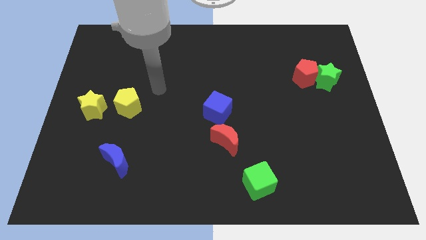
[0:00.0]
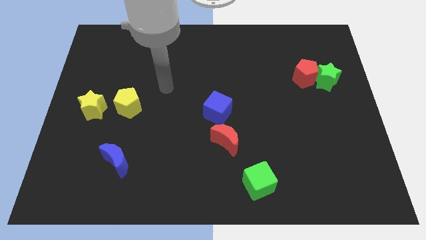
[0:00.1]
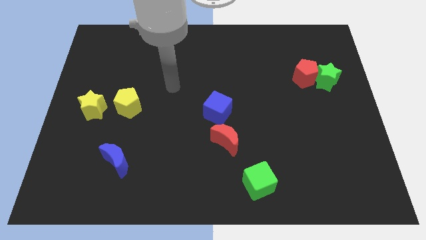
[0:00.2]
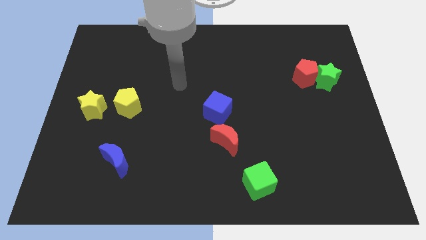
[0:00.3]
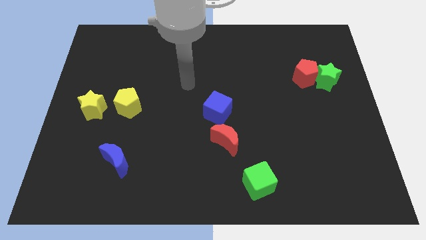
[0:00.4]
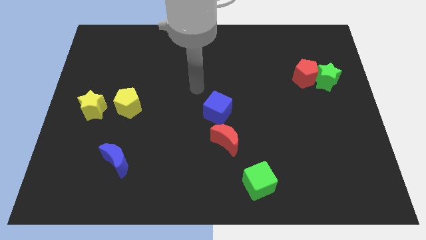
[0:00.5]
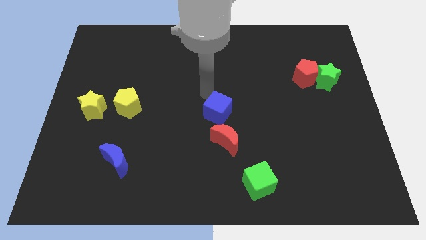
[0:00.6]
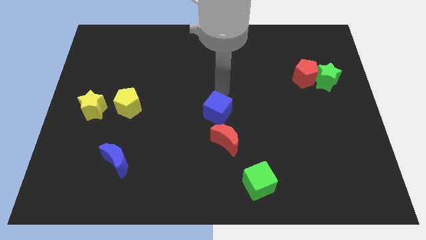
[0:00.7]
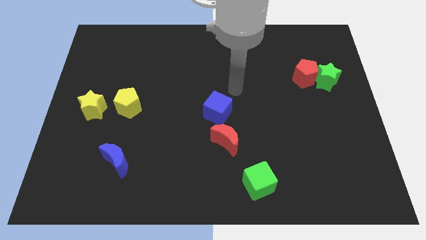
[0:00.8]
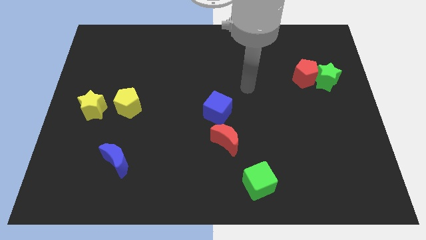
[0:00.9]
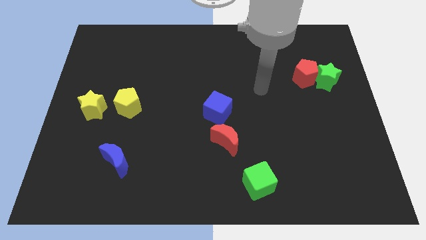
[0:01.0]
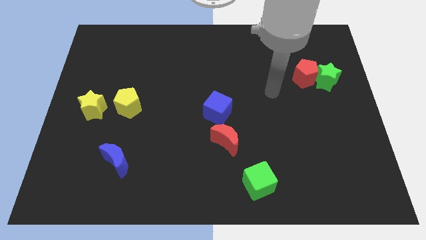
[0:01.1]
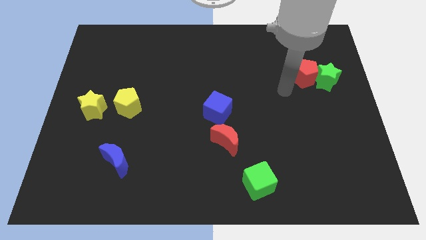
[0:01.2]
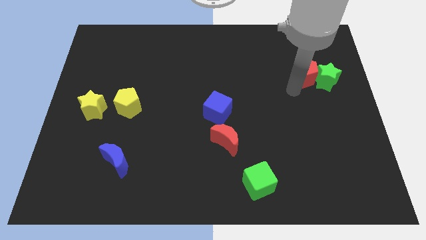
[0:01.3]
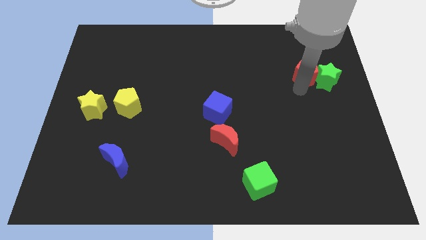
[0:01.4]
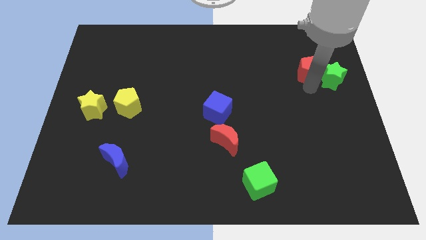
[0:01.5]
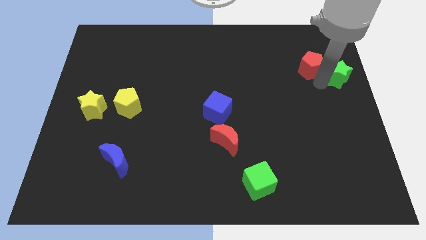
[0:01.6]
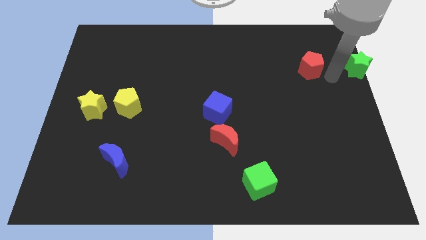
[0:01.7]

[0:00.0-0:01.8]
separate the red pentagon from the green star

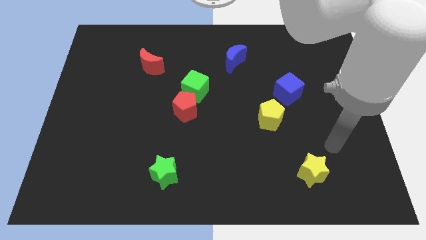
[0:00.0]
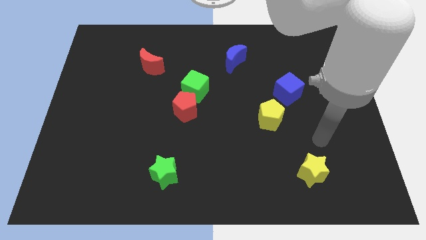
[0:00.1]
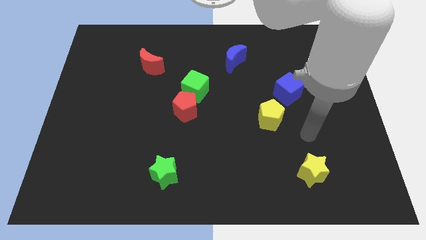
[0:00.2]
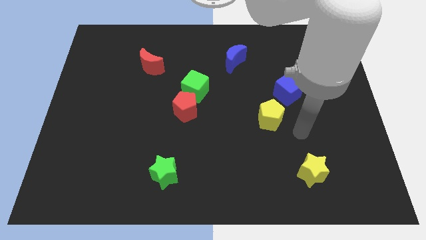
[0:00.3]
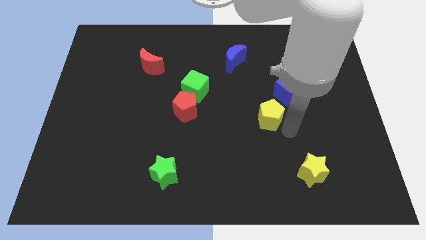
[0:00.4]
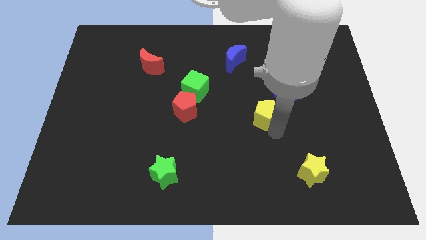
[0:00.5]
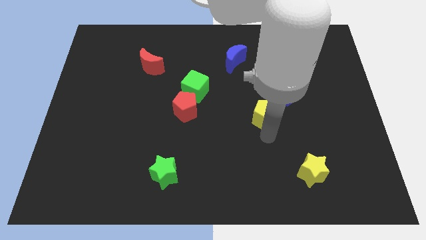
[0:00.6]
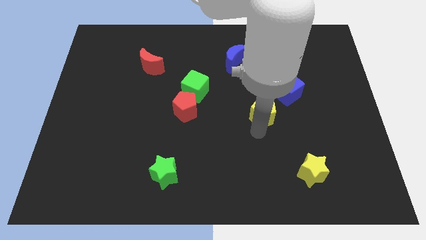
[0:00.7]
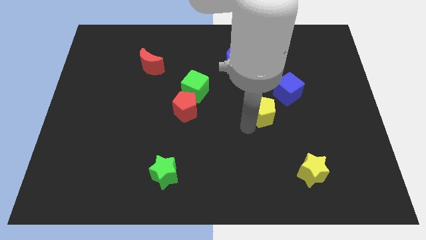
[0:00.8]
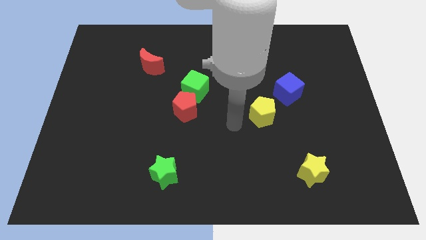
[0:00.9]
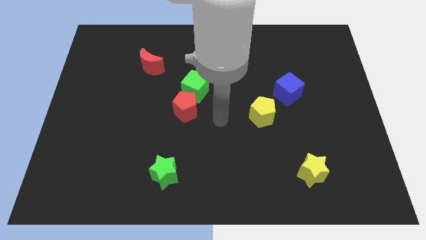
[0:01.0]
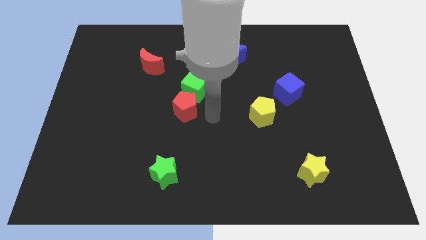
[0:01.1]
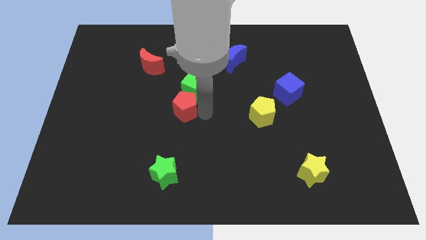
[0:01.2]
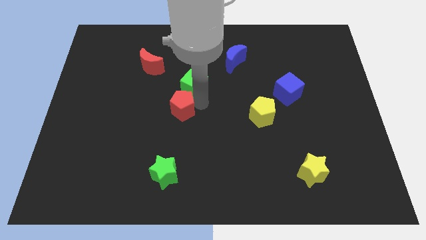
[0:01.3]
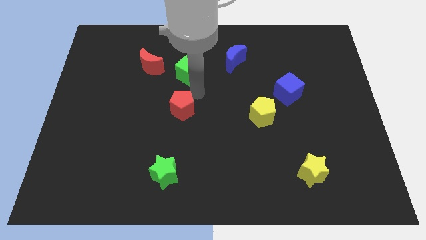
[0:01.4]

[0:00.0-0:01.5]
move the red pentagon away from the green cube

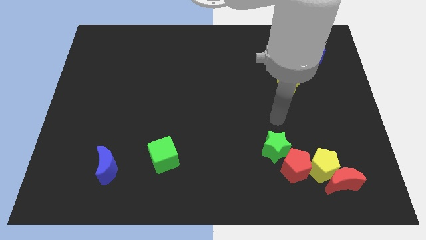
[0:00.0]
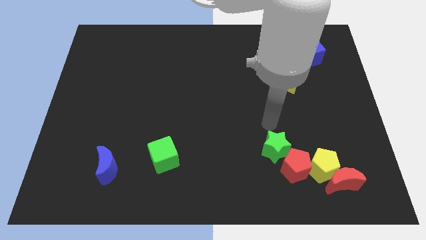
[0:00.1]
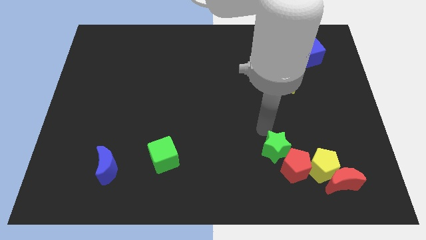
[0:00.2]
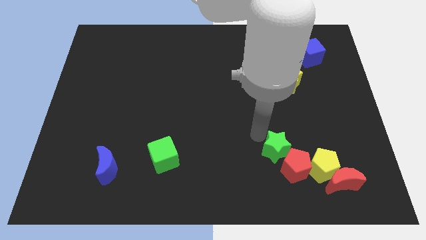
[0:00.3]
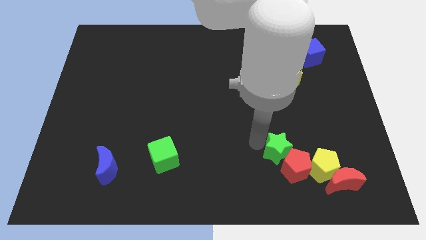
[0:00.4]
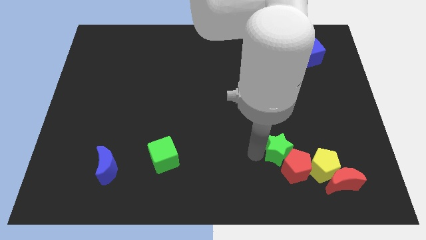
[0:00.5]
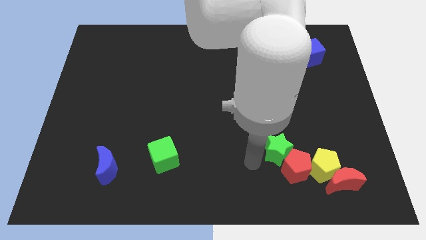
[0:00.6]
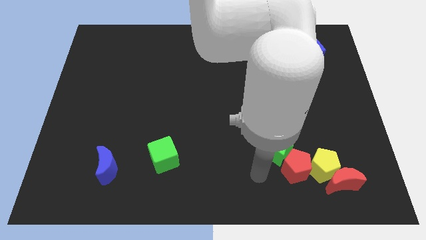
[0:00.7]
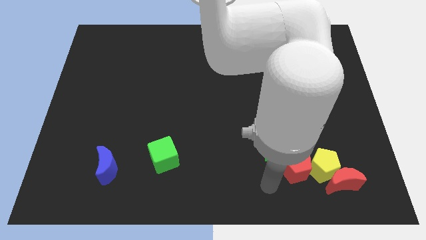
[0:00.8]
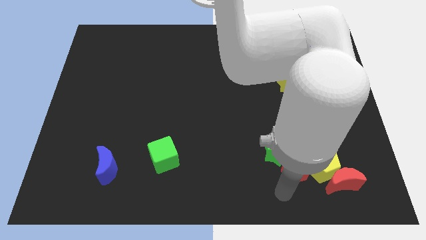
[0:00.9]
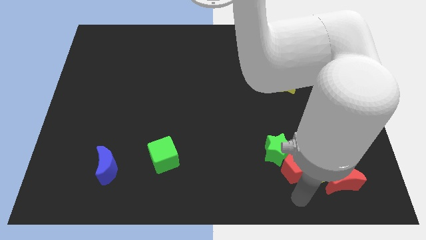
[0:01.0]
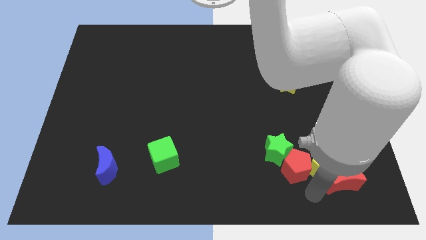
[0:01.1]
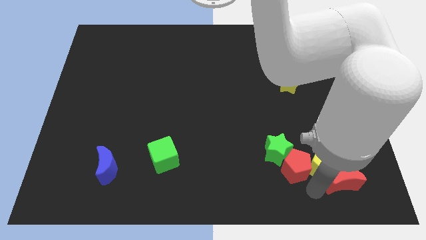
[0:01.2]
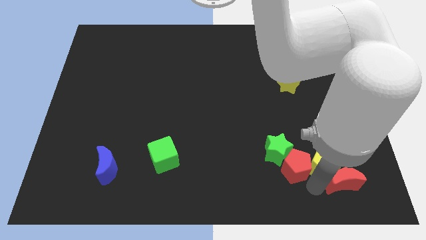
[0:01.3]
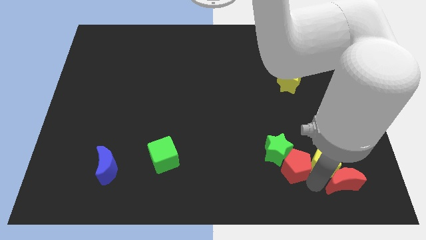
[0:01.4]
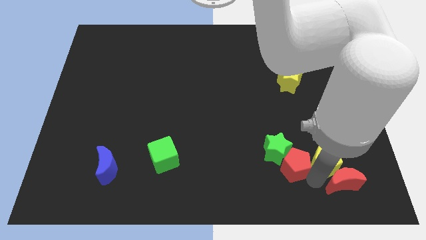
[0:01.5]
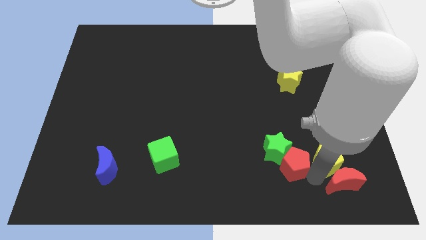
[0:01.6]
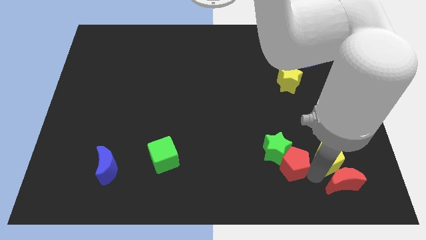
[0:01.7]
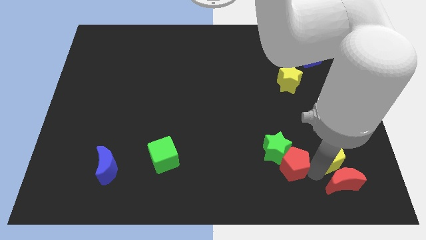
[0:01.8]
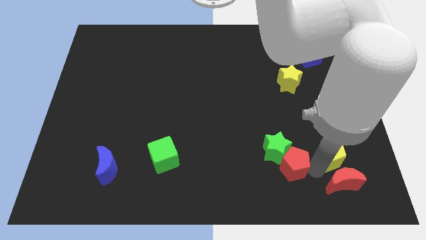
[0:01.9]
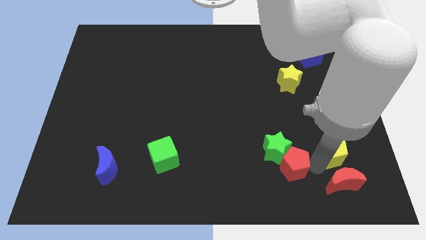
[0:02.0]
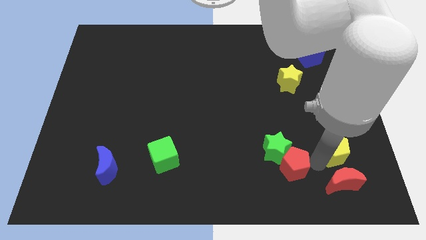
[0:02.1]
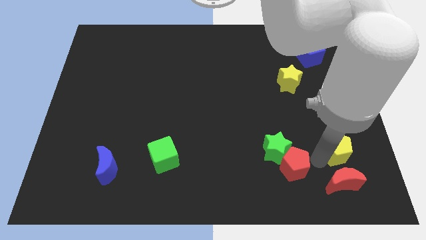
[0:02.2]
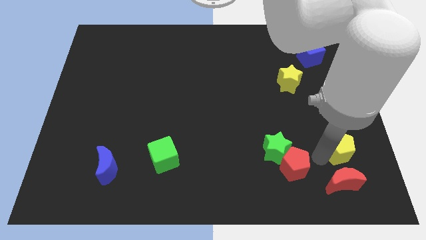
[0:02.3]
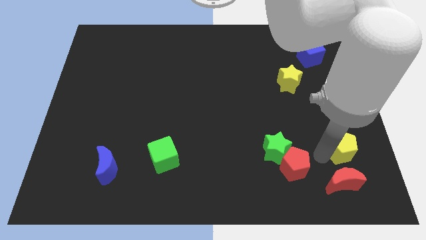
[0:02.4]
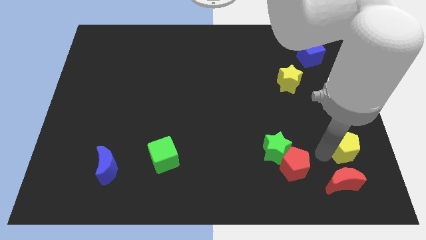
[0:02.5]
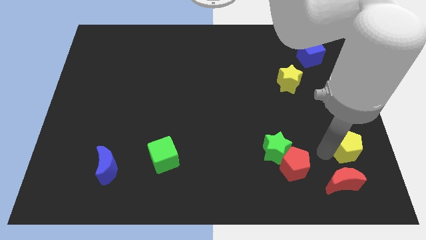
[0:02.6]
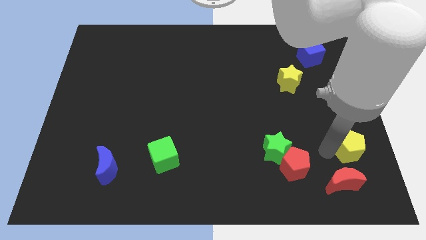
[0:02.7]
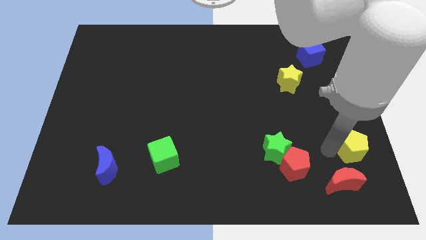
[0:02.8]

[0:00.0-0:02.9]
separate the yellow pentagon from the red moon and red pentagon

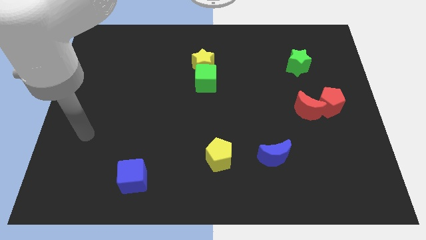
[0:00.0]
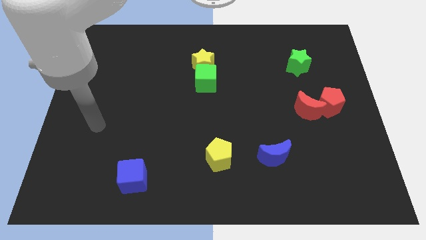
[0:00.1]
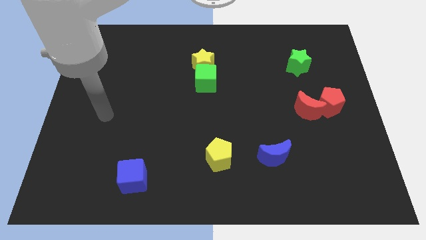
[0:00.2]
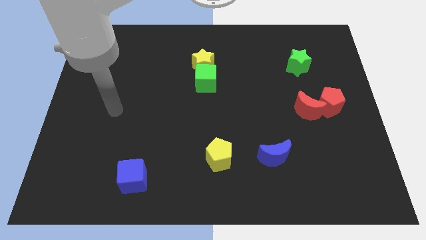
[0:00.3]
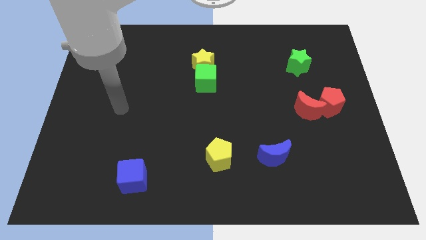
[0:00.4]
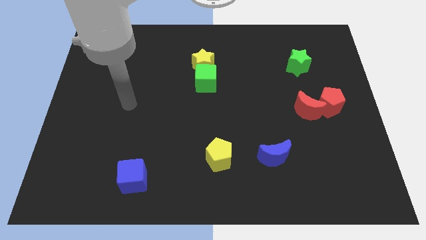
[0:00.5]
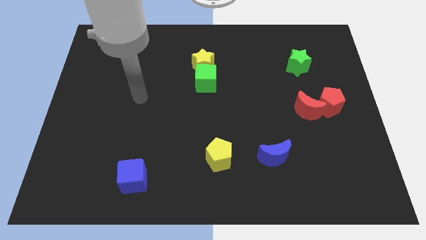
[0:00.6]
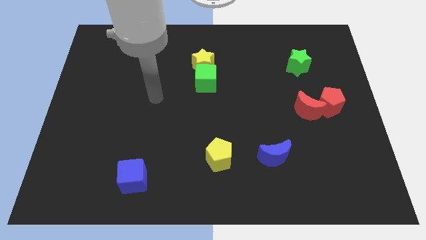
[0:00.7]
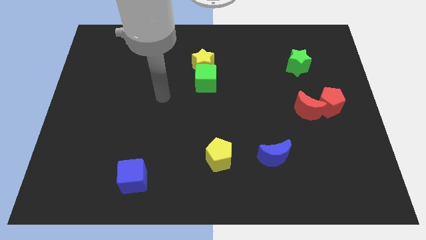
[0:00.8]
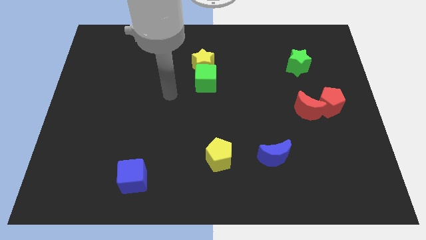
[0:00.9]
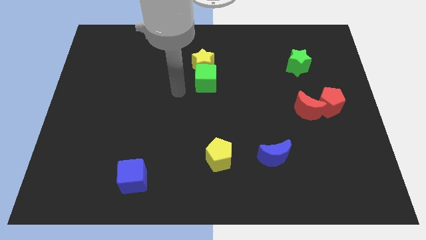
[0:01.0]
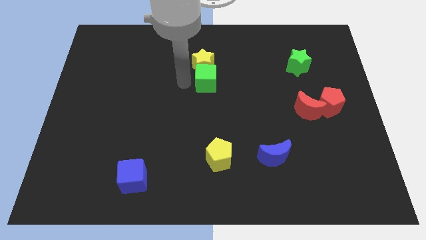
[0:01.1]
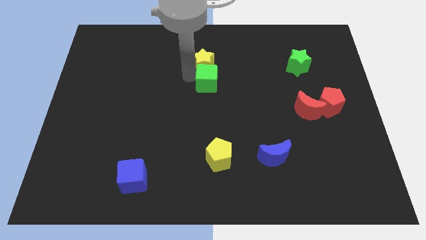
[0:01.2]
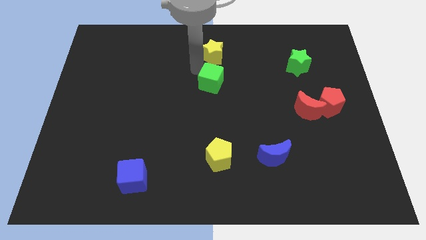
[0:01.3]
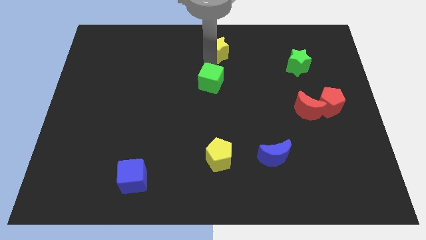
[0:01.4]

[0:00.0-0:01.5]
separate the green cube from the yellow star

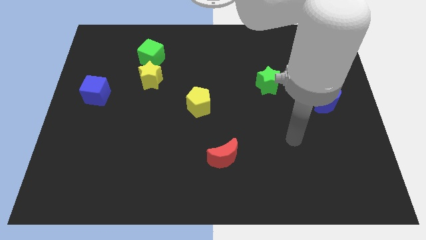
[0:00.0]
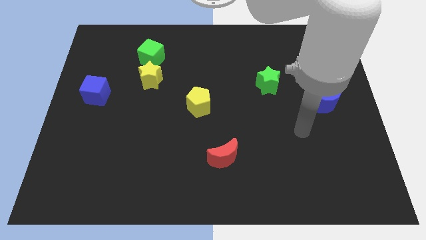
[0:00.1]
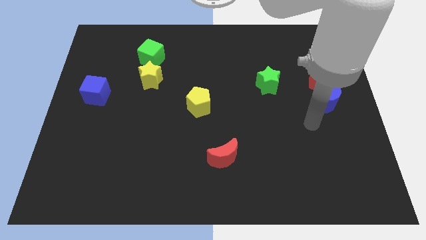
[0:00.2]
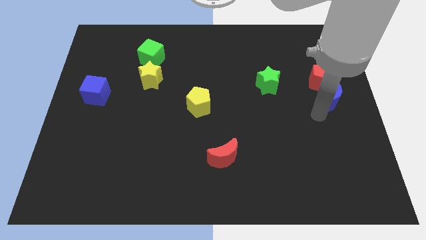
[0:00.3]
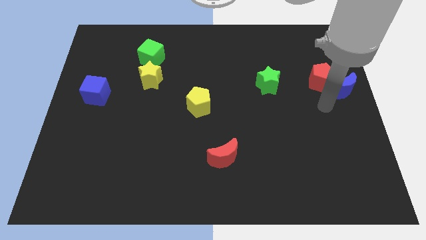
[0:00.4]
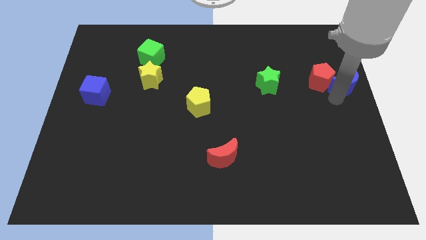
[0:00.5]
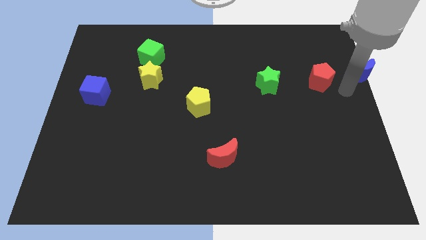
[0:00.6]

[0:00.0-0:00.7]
pull the red pentagon apart from the blue moon

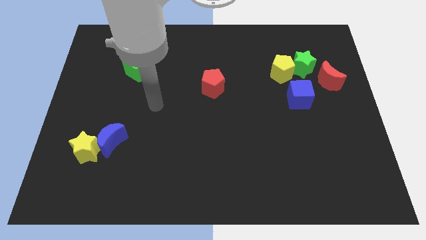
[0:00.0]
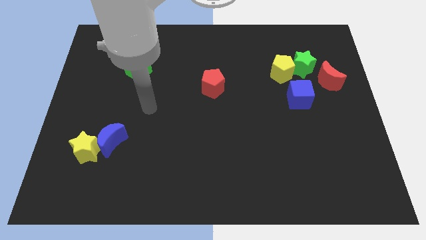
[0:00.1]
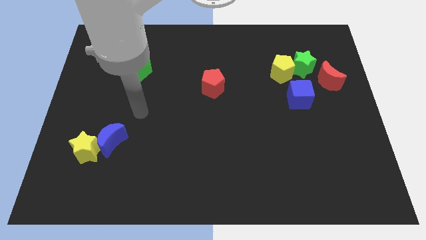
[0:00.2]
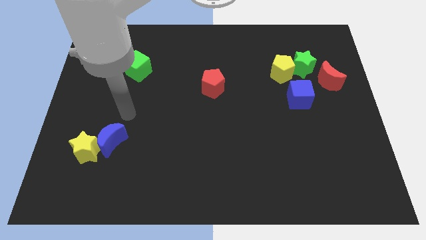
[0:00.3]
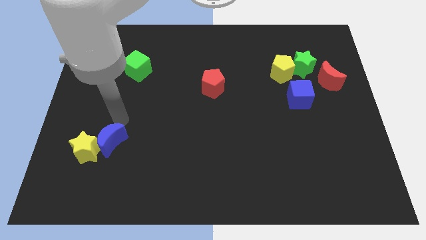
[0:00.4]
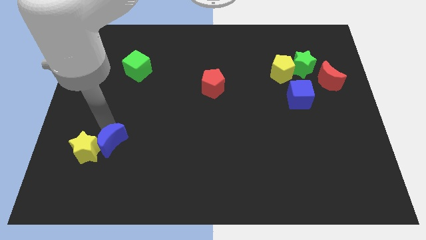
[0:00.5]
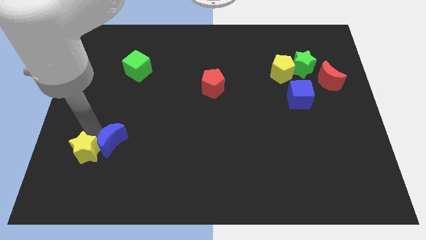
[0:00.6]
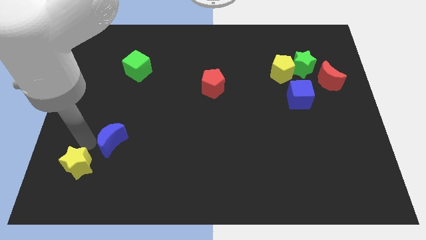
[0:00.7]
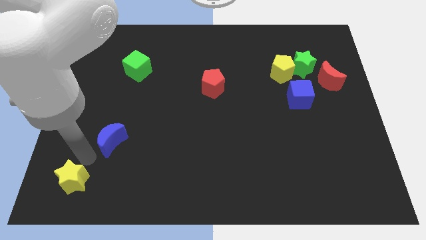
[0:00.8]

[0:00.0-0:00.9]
pull the blue moon apart from the yellow star

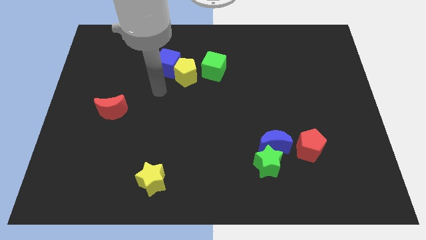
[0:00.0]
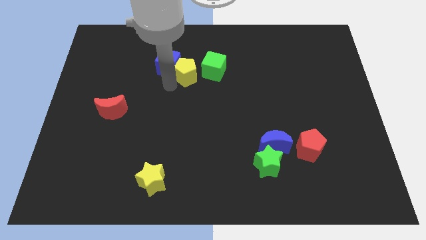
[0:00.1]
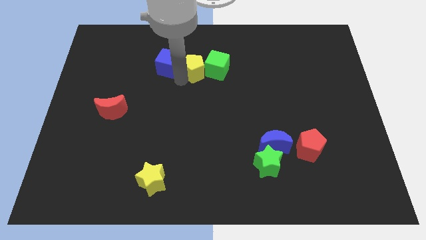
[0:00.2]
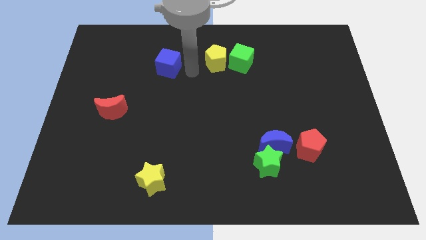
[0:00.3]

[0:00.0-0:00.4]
move the blue cube away from the yellow pentagon
